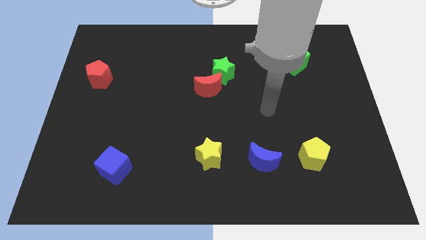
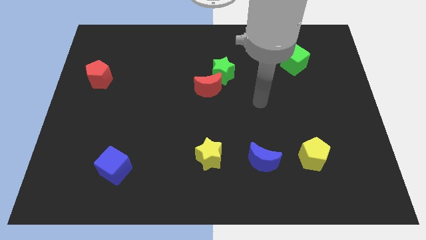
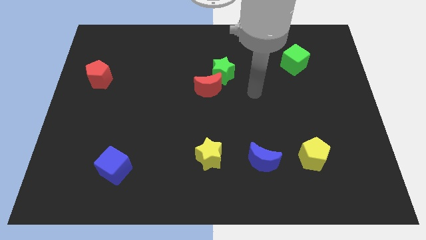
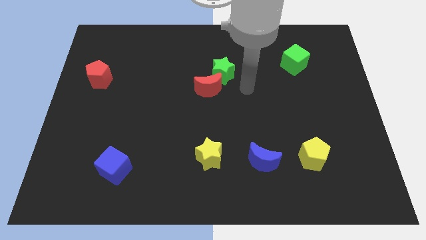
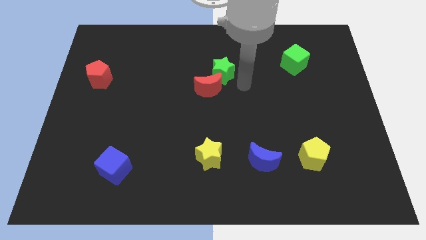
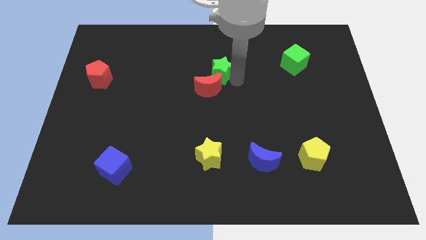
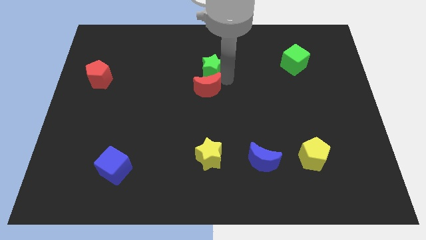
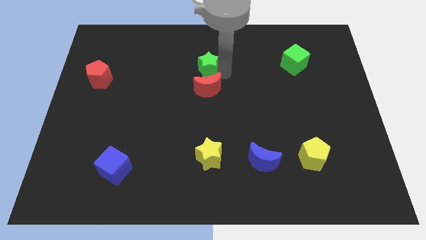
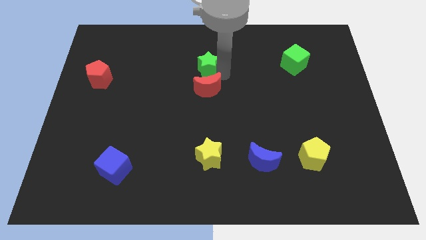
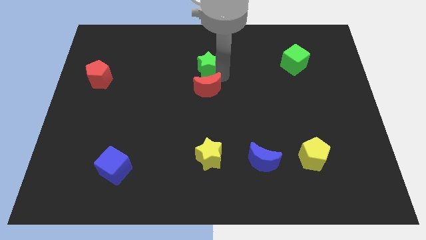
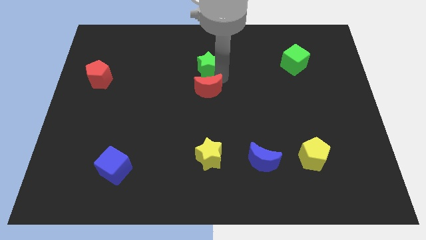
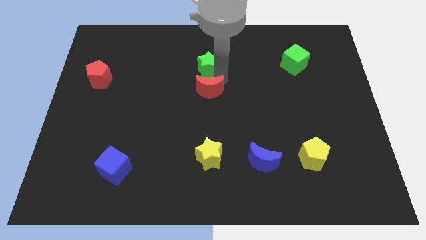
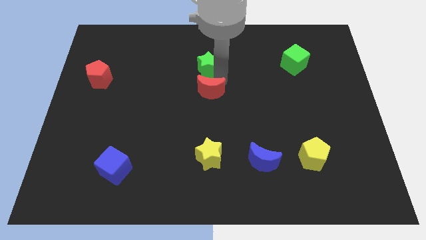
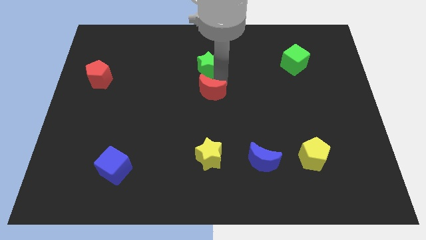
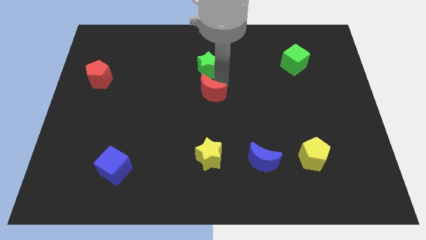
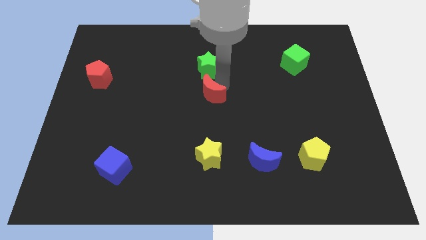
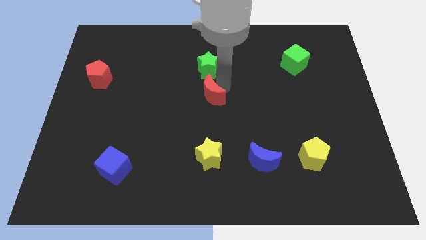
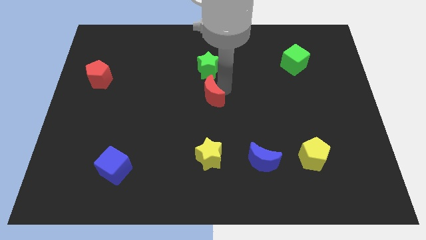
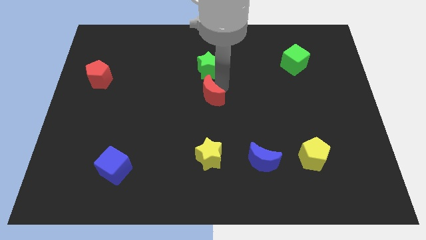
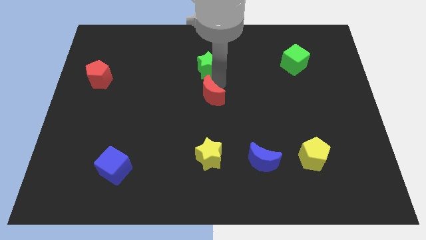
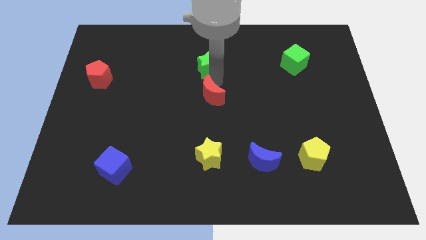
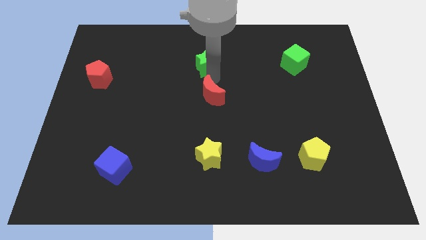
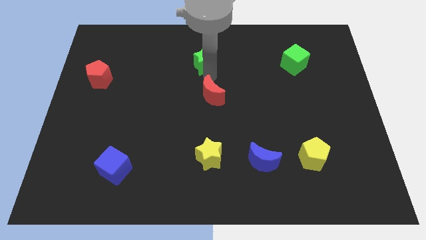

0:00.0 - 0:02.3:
separate the red moon from the green star

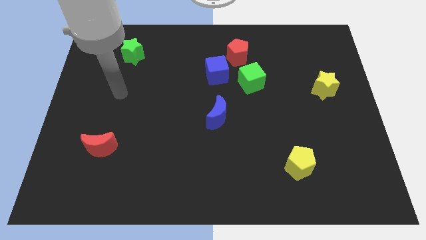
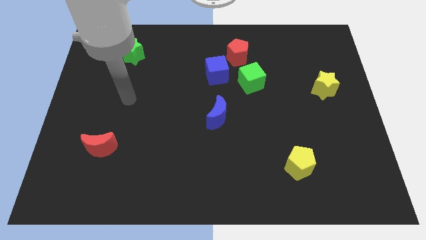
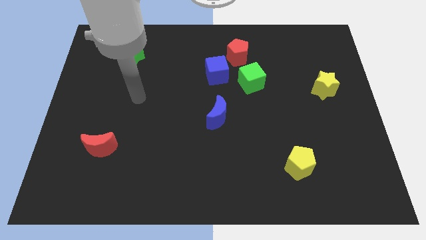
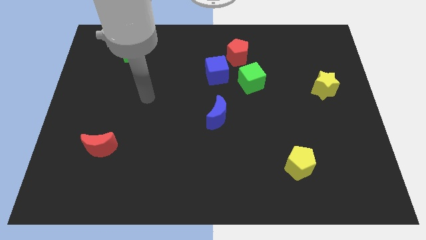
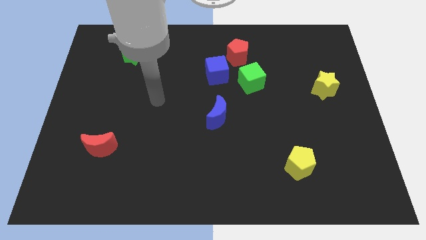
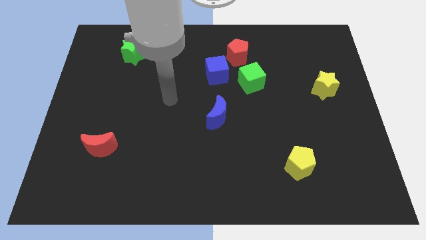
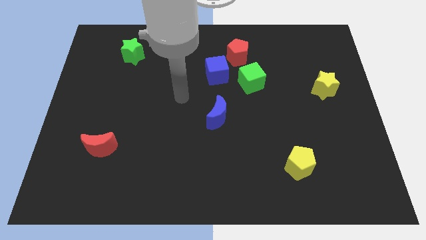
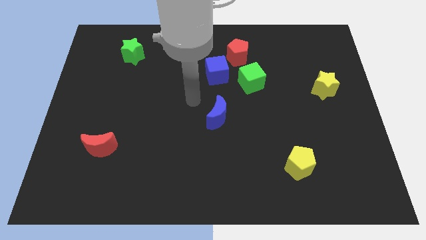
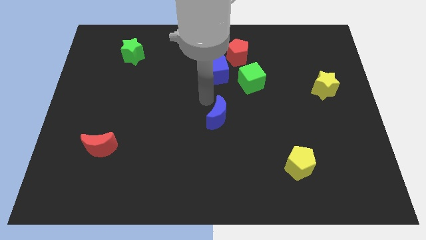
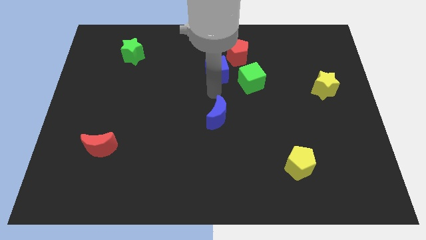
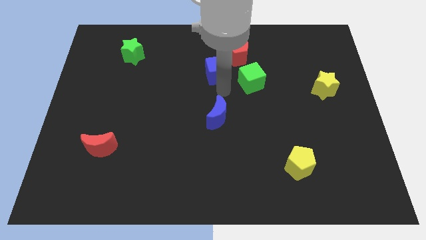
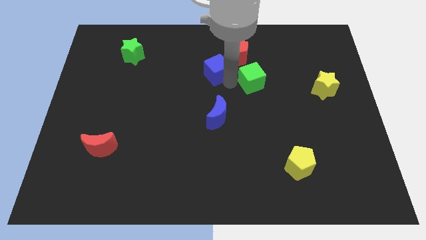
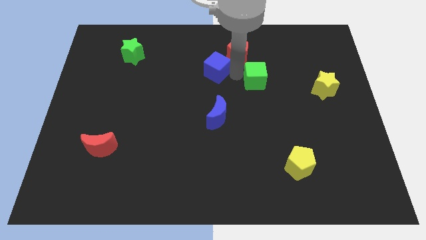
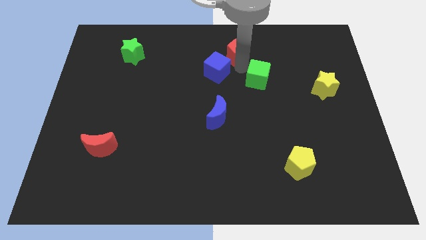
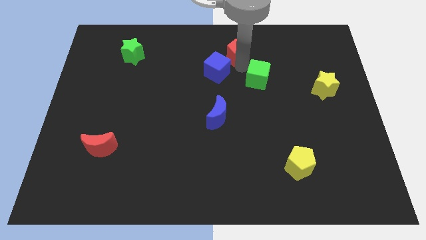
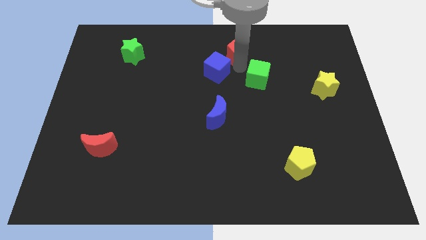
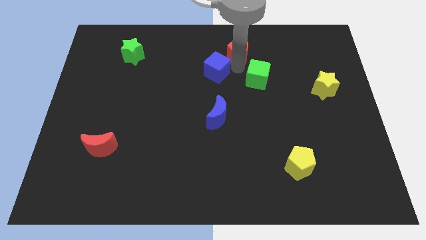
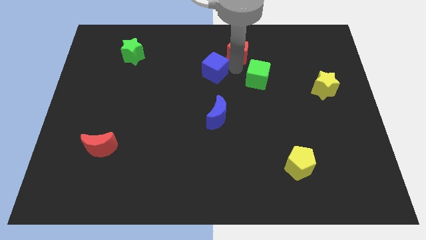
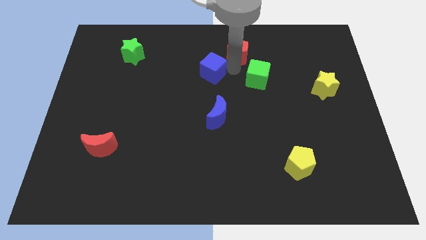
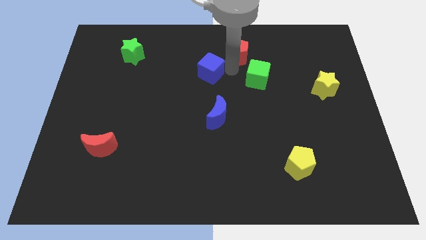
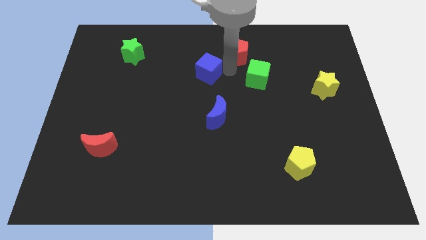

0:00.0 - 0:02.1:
move the blue cube away from the red pentagon and green cube

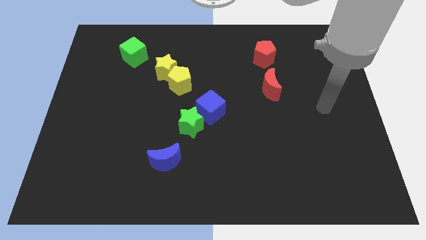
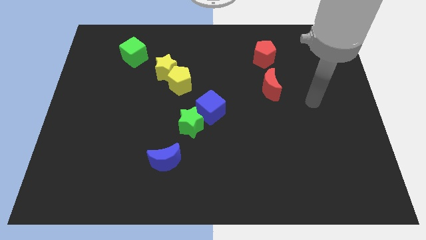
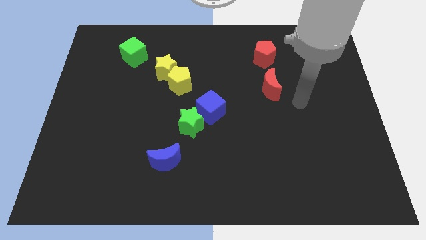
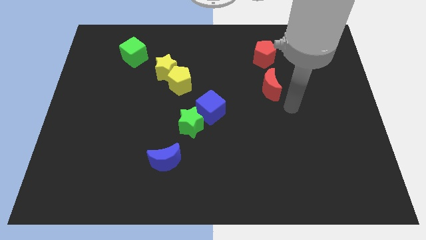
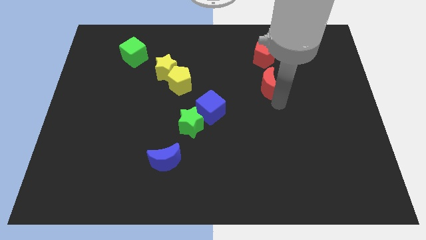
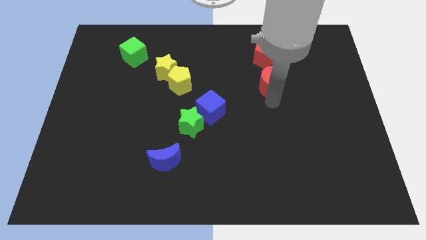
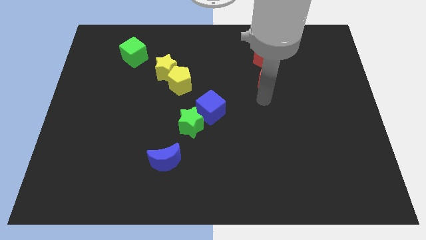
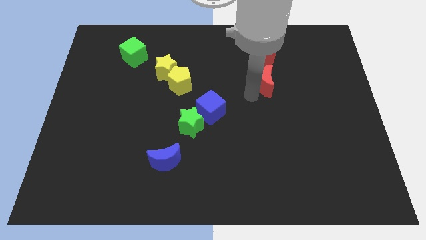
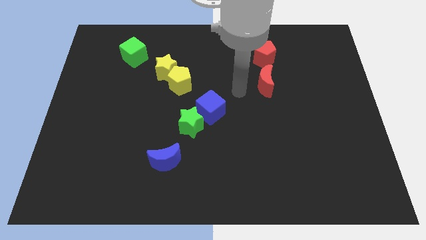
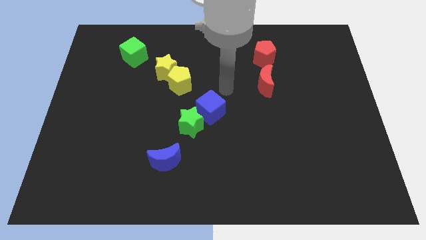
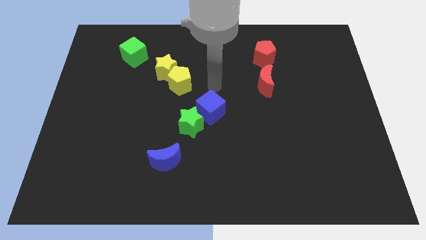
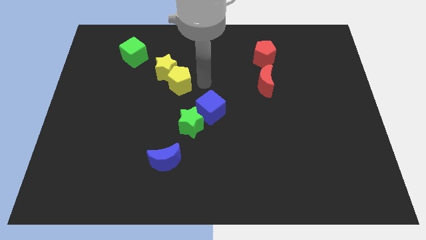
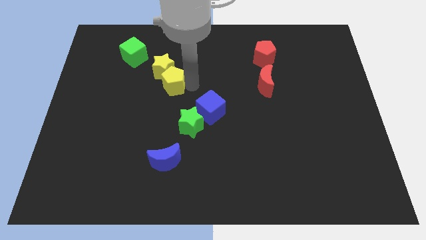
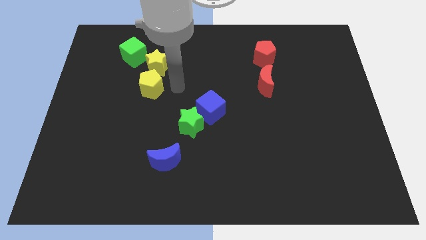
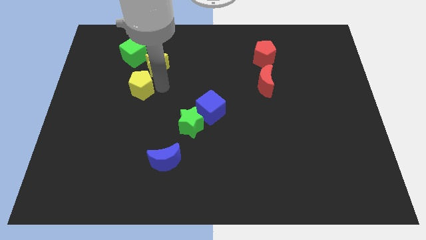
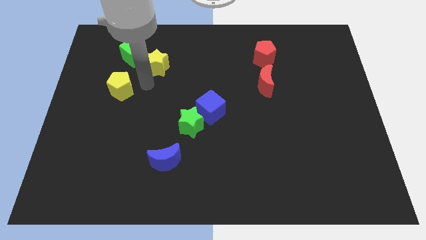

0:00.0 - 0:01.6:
move the yellow star away from the yellow pentagon

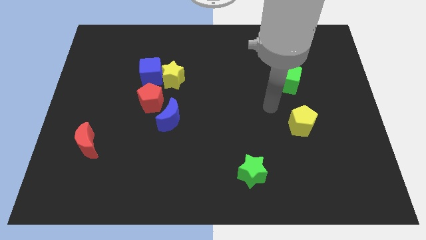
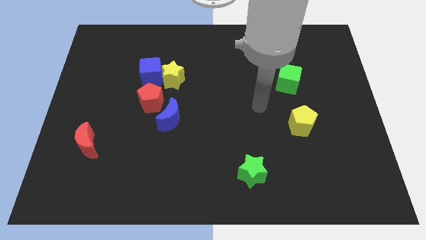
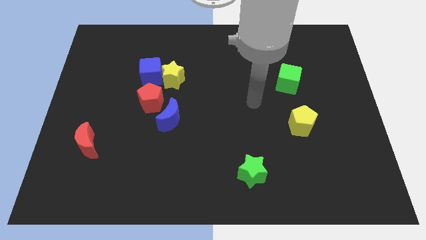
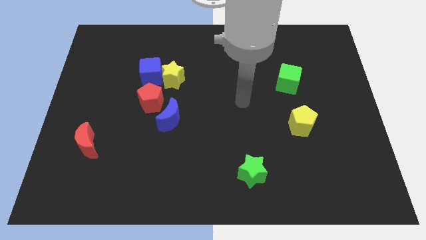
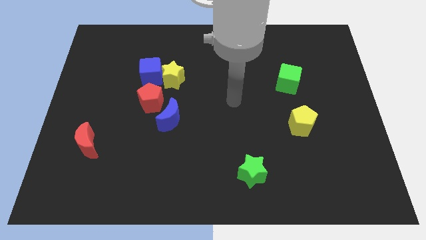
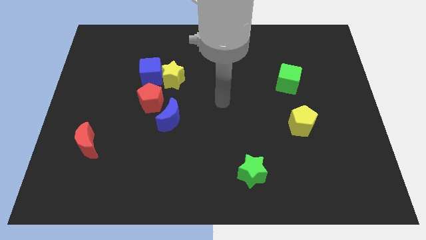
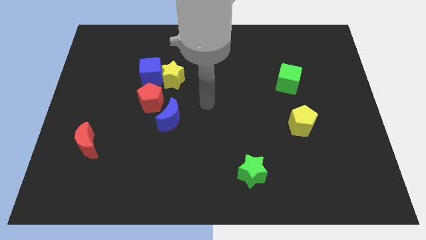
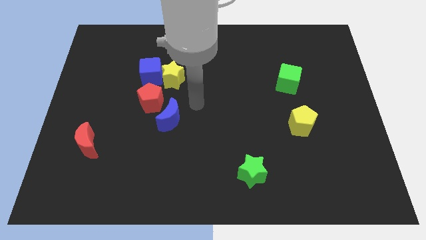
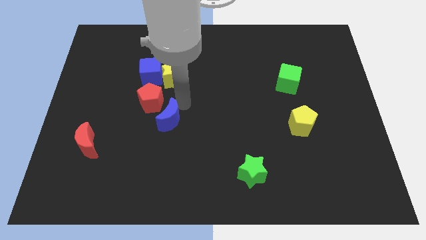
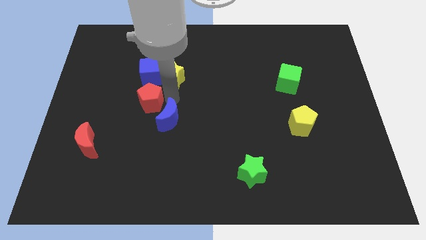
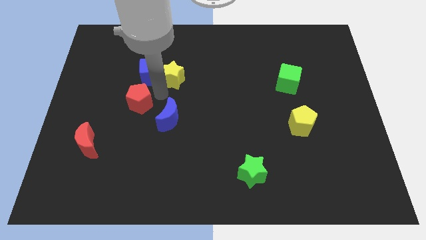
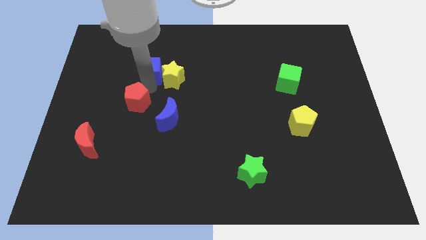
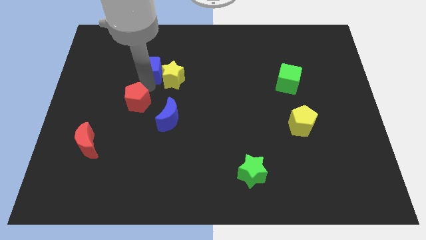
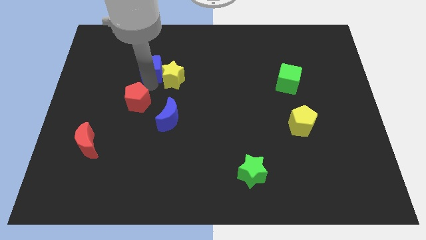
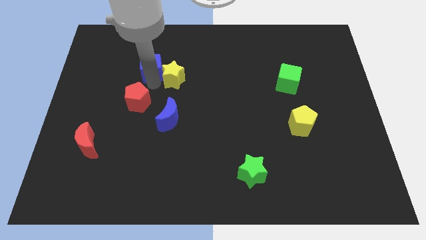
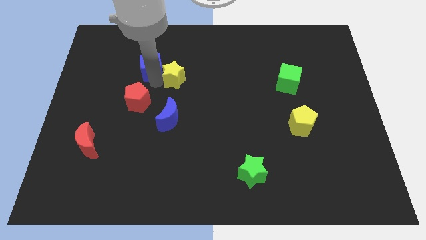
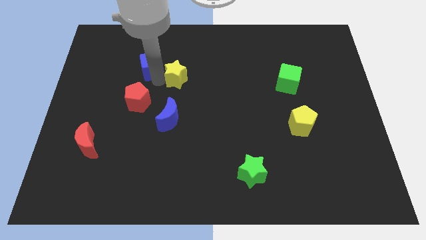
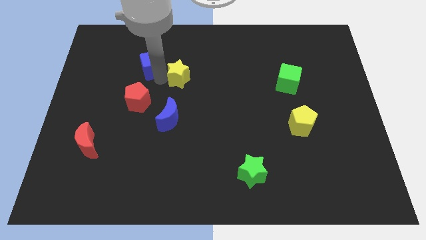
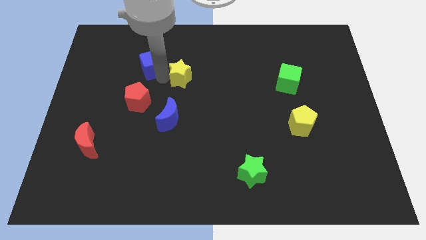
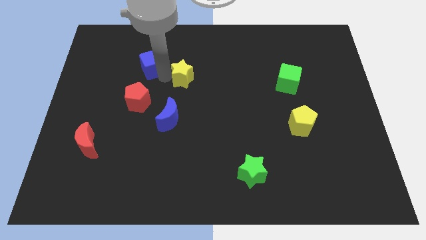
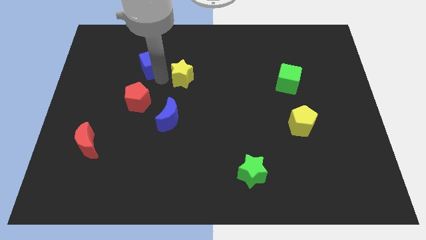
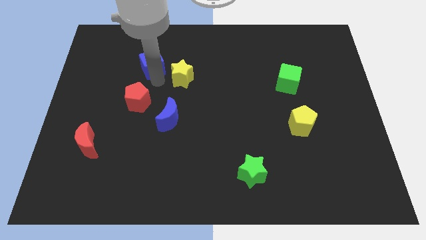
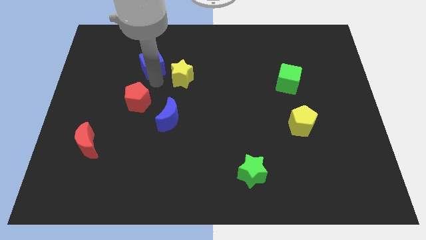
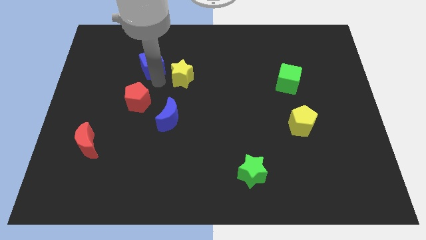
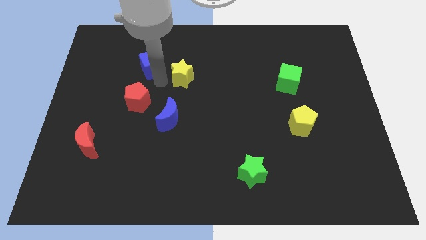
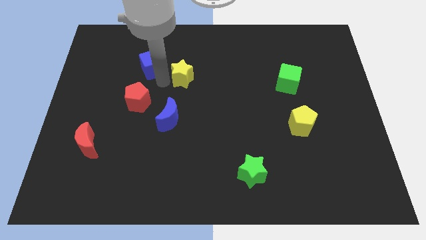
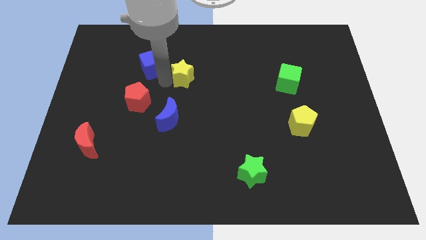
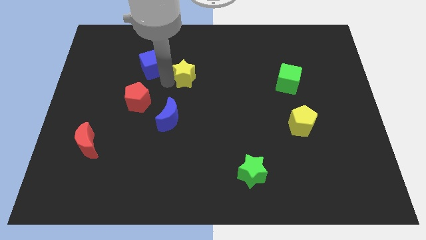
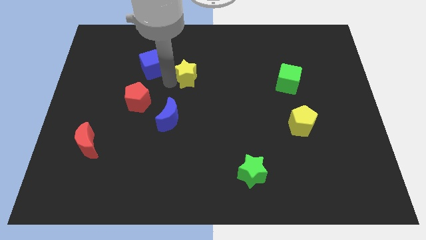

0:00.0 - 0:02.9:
pull the yellow star apart from the blue cube and red pentagon

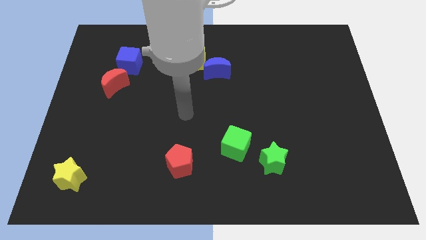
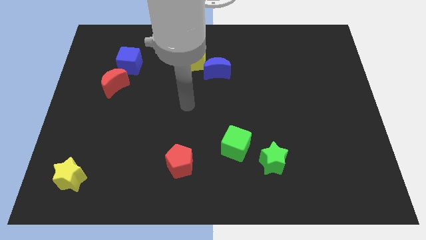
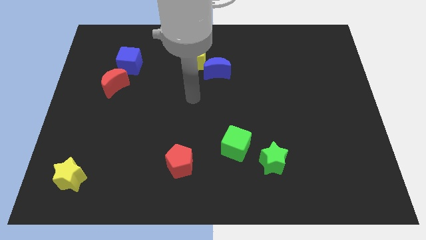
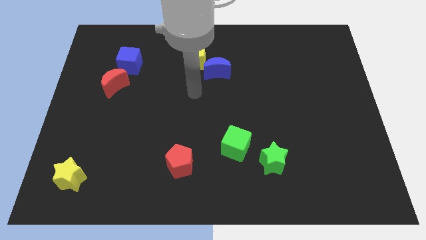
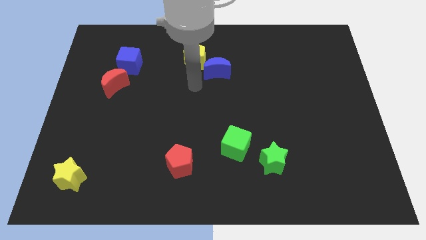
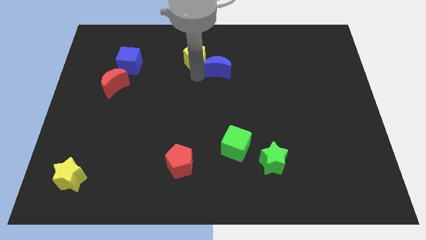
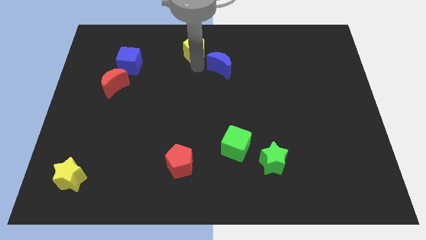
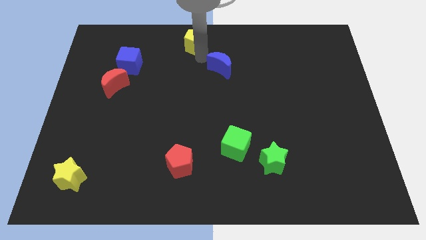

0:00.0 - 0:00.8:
pull the blue moon apart from the yellow pentagon
